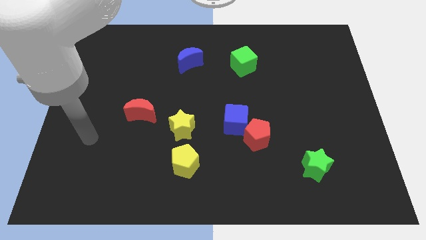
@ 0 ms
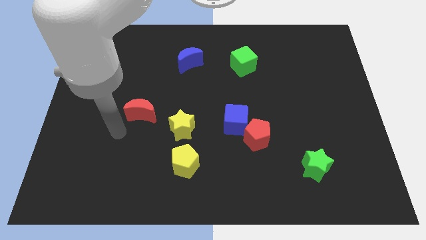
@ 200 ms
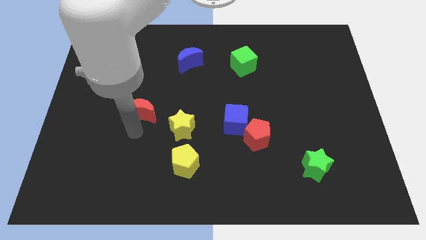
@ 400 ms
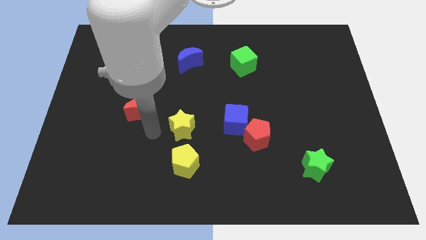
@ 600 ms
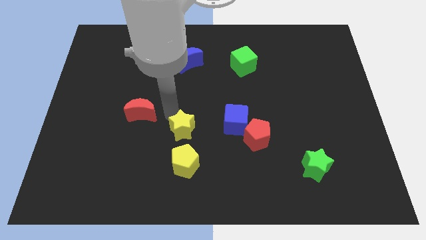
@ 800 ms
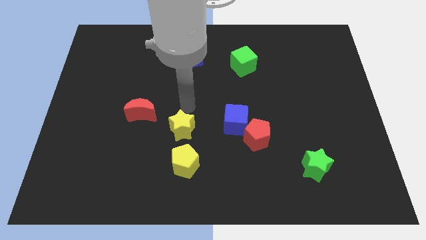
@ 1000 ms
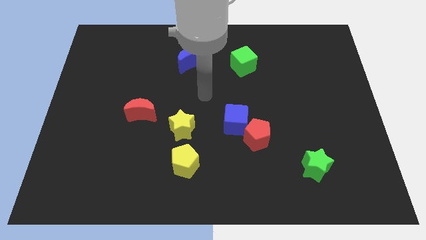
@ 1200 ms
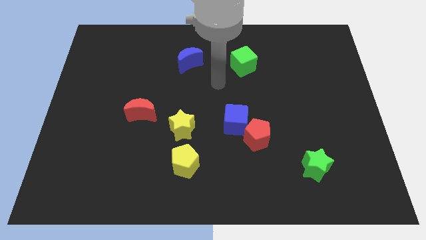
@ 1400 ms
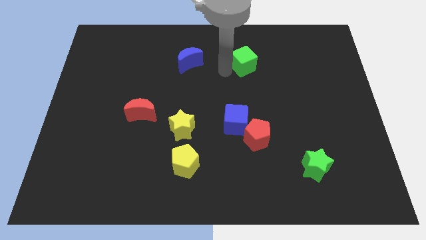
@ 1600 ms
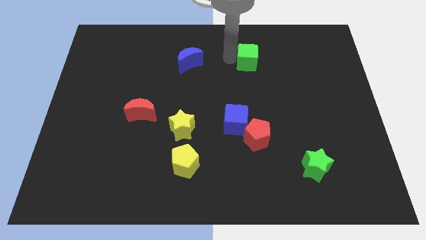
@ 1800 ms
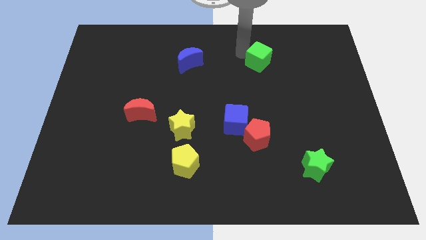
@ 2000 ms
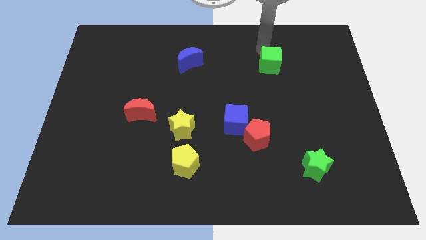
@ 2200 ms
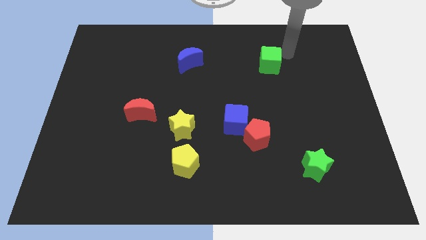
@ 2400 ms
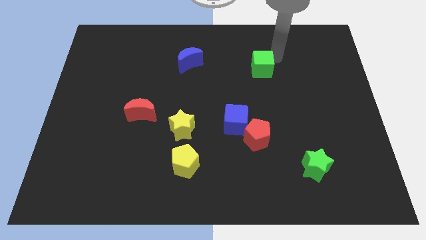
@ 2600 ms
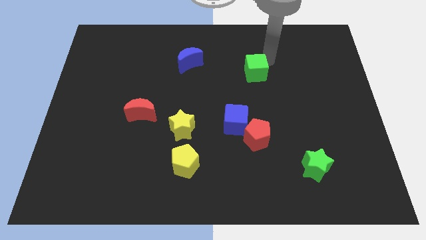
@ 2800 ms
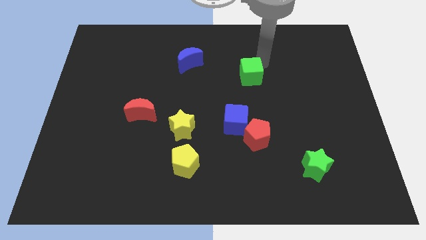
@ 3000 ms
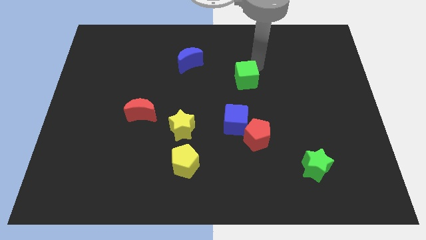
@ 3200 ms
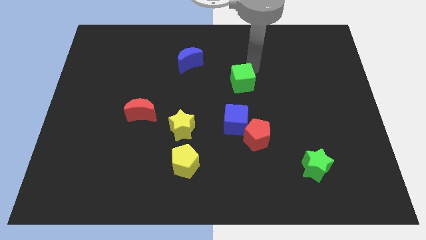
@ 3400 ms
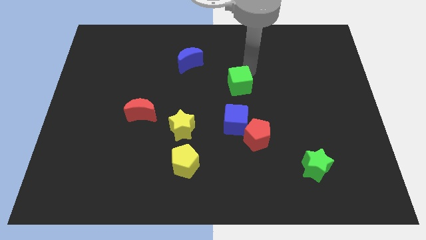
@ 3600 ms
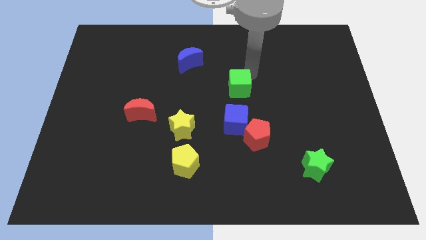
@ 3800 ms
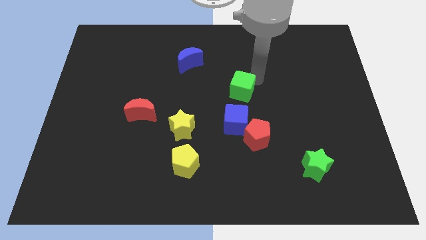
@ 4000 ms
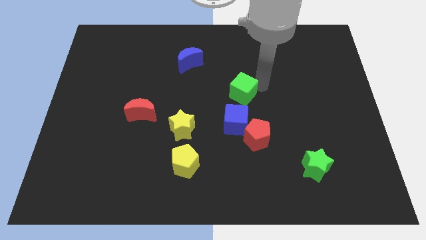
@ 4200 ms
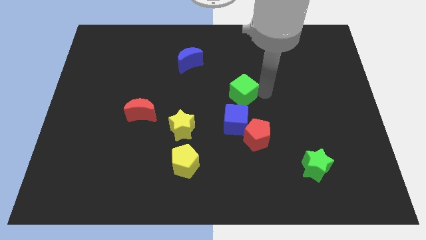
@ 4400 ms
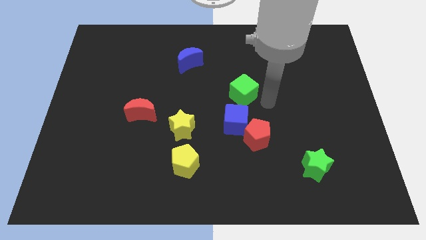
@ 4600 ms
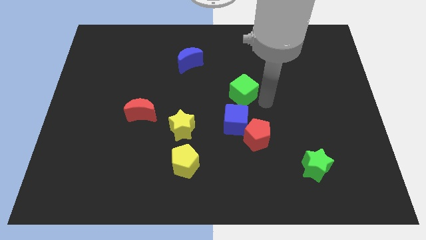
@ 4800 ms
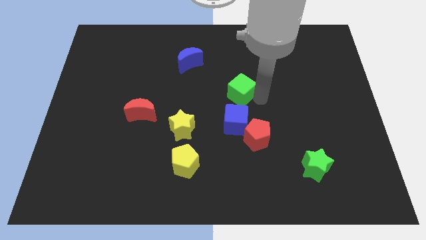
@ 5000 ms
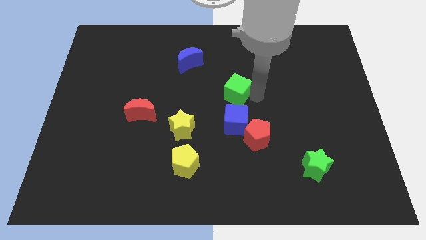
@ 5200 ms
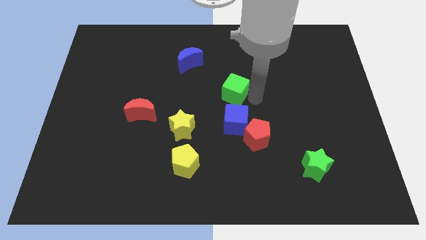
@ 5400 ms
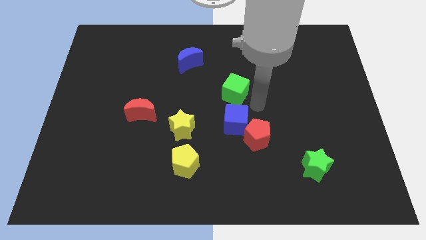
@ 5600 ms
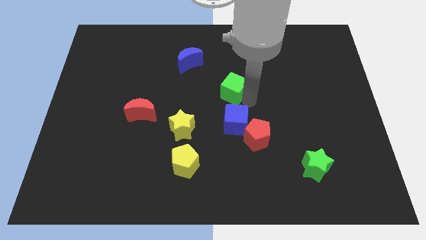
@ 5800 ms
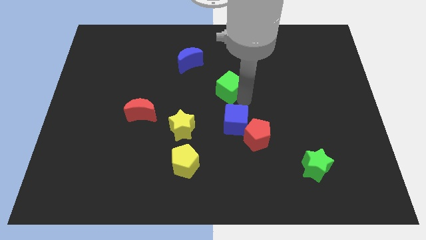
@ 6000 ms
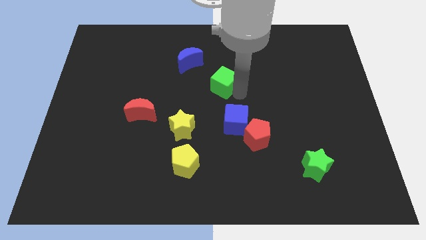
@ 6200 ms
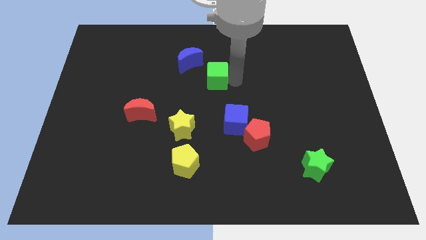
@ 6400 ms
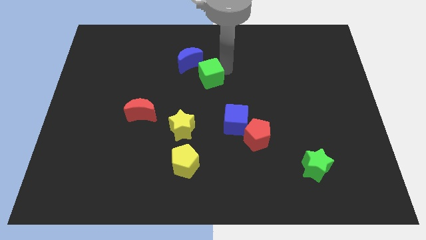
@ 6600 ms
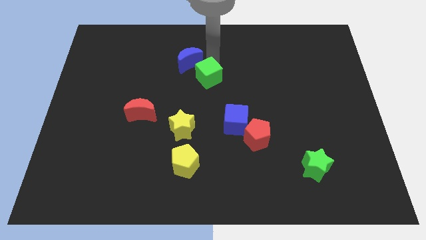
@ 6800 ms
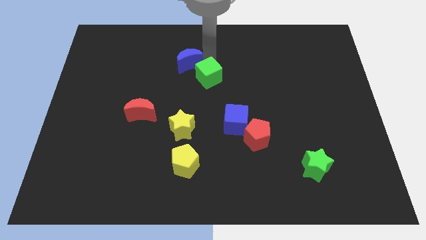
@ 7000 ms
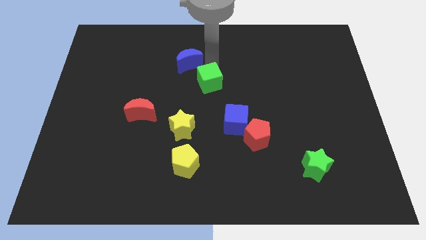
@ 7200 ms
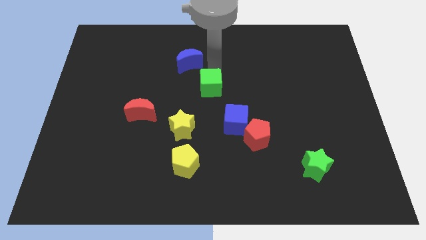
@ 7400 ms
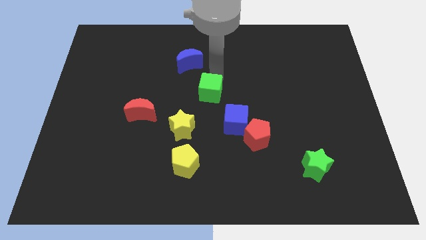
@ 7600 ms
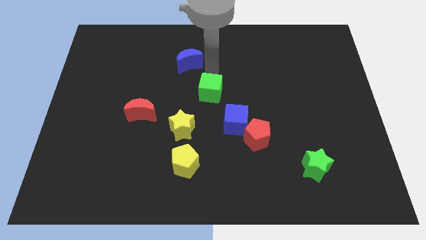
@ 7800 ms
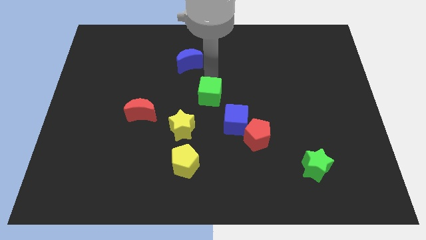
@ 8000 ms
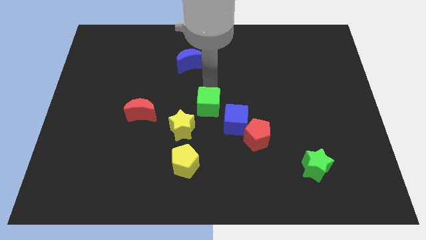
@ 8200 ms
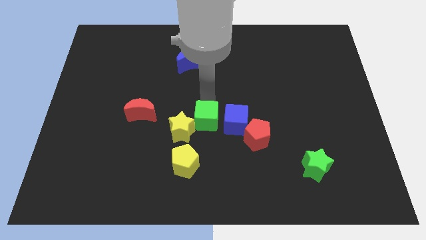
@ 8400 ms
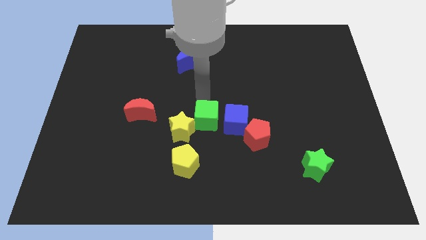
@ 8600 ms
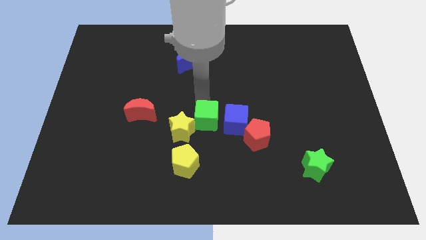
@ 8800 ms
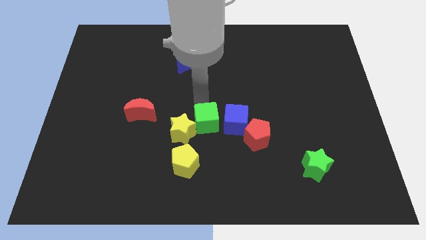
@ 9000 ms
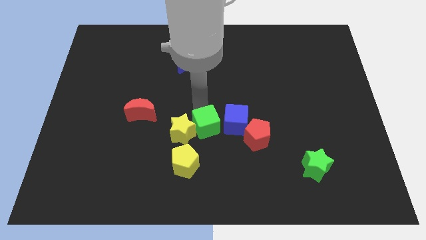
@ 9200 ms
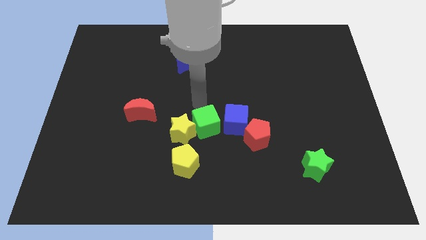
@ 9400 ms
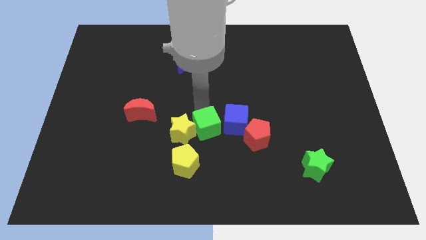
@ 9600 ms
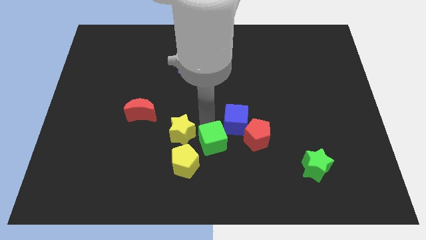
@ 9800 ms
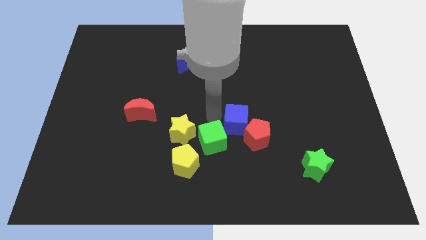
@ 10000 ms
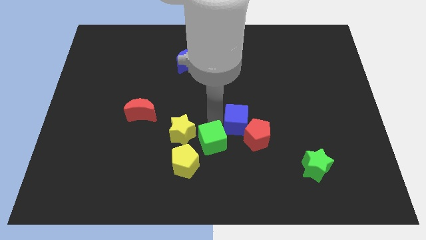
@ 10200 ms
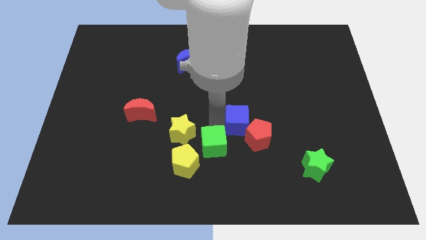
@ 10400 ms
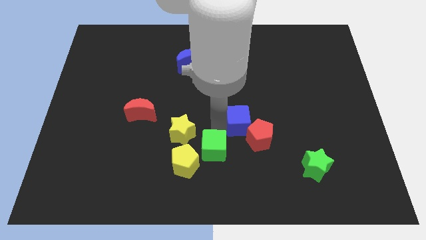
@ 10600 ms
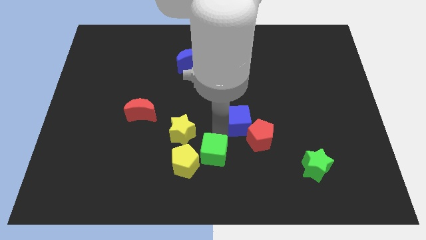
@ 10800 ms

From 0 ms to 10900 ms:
put the green cube to the bottom

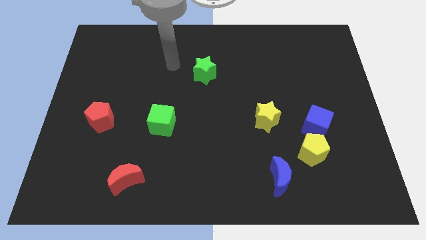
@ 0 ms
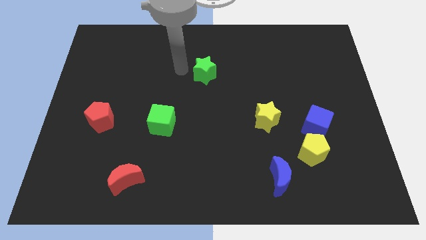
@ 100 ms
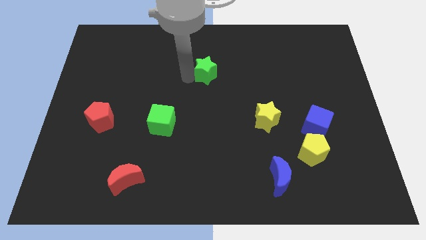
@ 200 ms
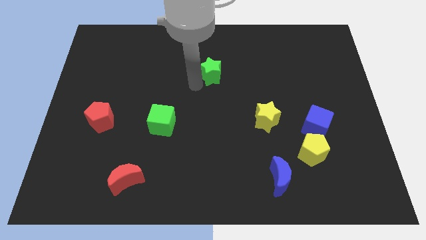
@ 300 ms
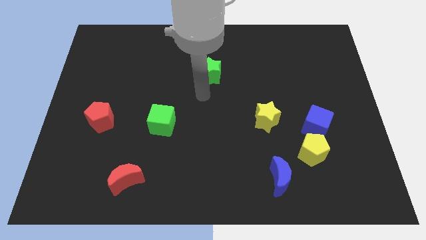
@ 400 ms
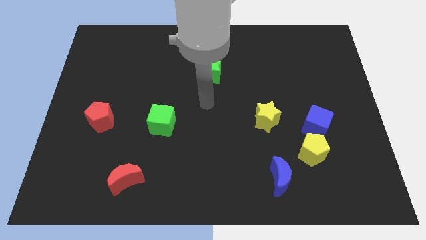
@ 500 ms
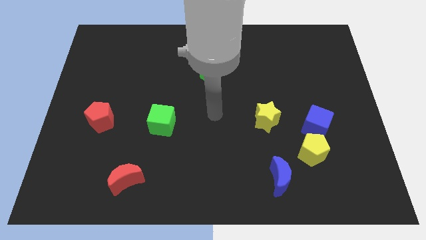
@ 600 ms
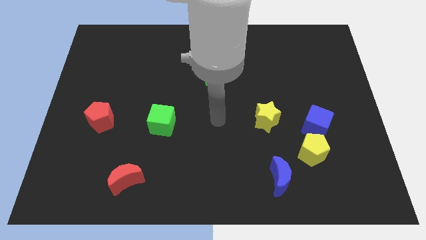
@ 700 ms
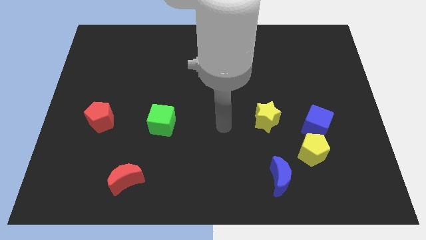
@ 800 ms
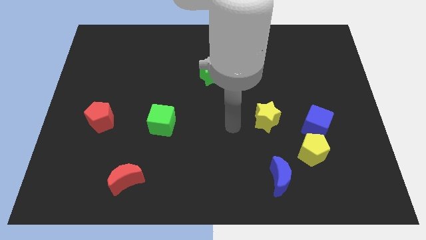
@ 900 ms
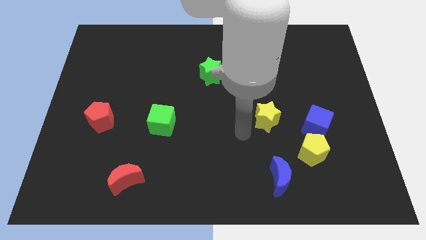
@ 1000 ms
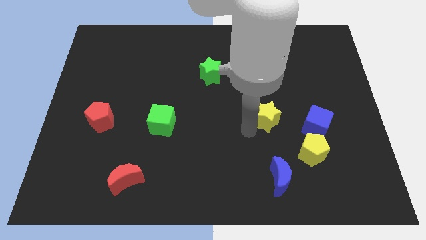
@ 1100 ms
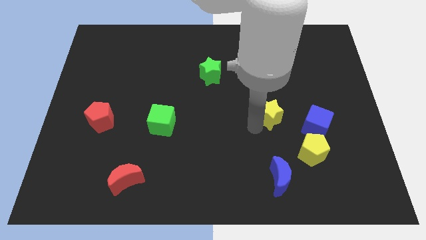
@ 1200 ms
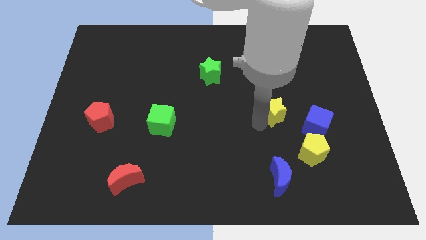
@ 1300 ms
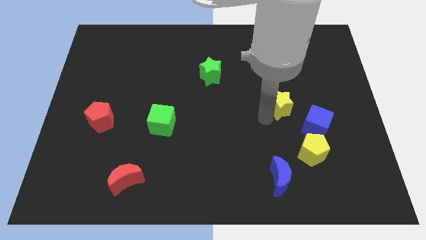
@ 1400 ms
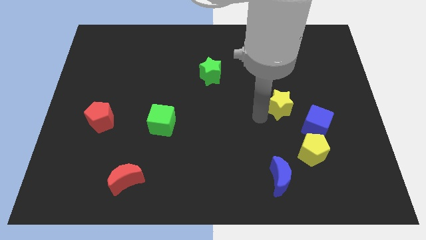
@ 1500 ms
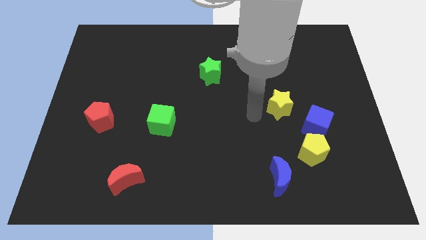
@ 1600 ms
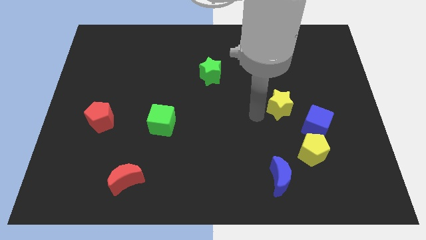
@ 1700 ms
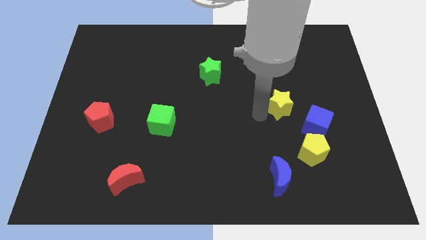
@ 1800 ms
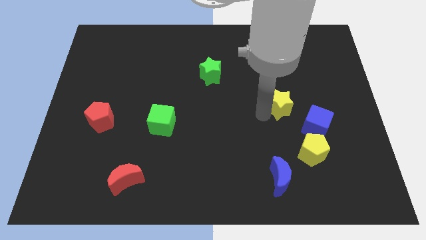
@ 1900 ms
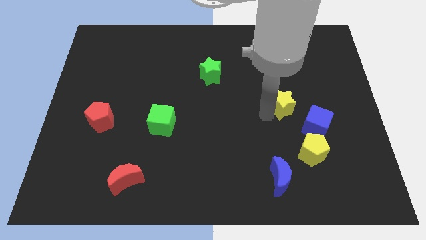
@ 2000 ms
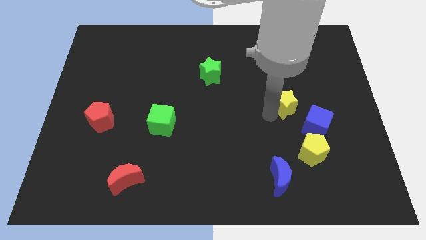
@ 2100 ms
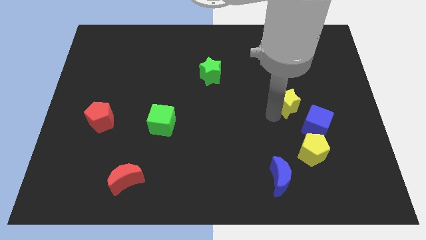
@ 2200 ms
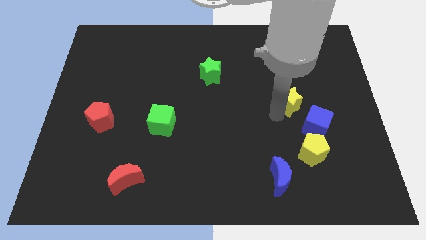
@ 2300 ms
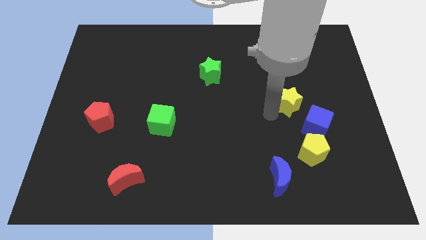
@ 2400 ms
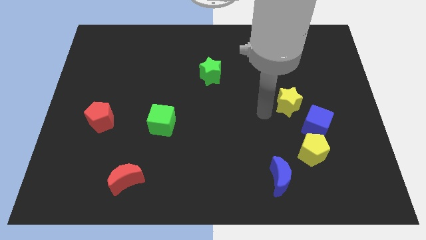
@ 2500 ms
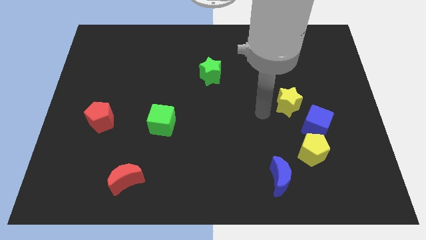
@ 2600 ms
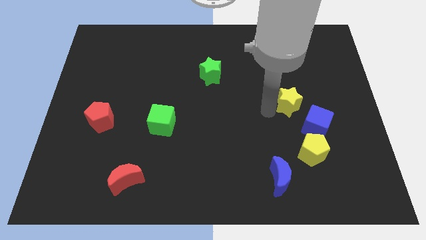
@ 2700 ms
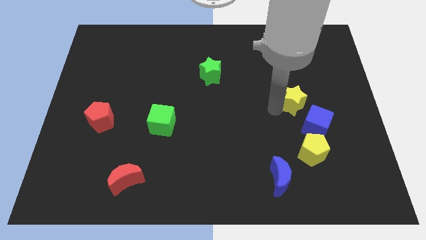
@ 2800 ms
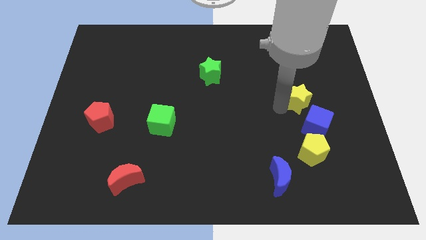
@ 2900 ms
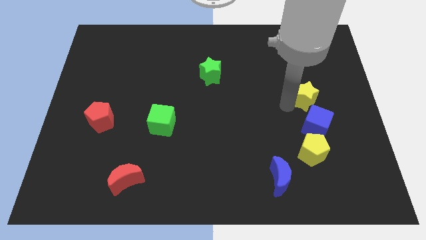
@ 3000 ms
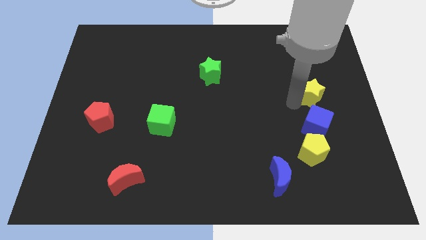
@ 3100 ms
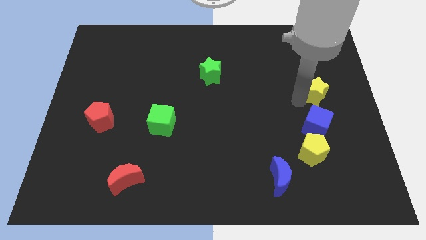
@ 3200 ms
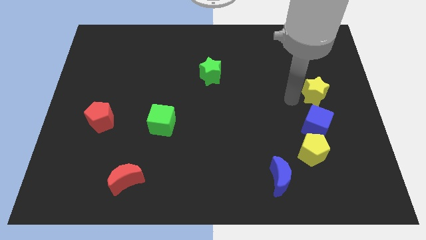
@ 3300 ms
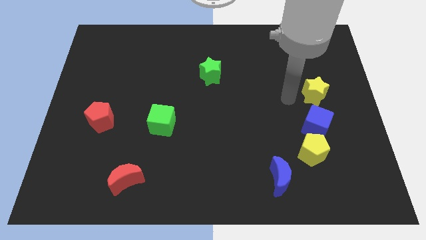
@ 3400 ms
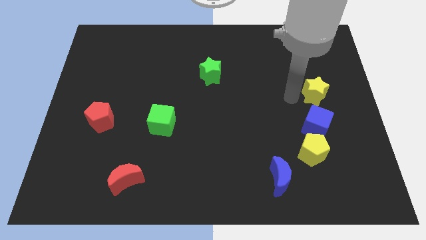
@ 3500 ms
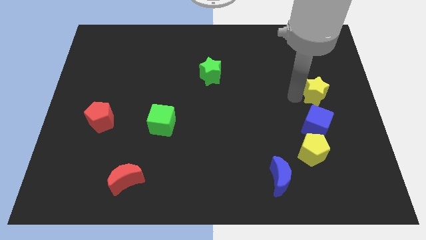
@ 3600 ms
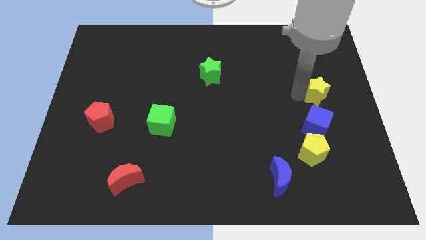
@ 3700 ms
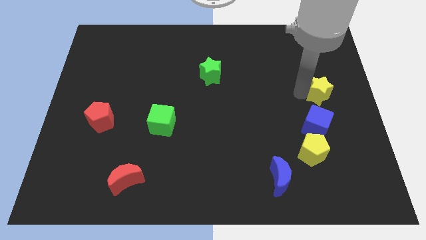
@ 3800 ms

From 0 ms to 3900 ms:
push the yellow star to the center right
